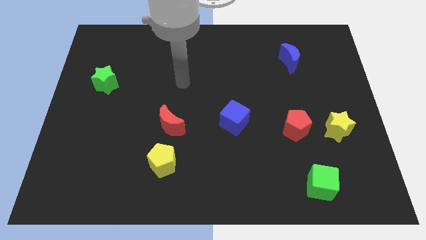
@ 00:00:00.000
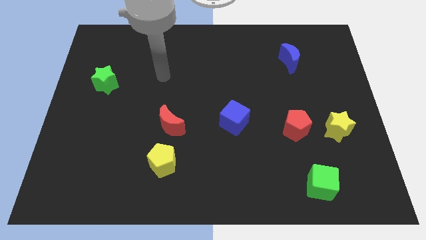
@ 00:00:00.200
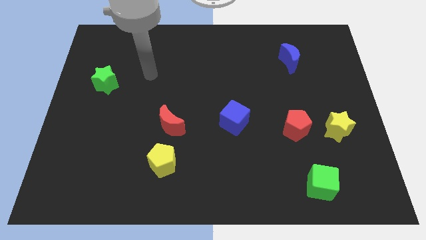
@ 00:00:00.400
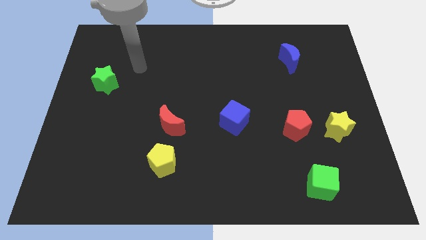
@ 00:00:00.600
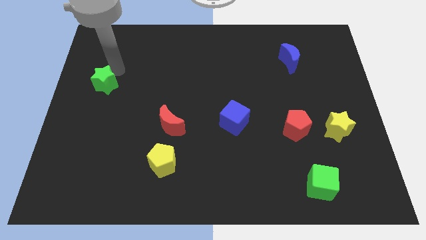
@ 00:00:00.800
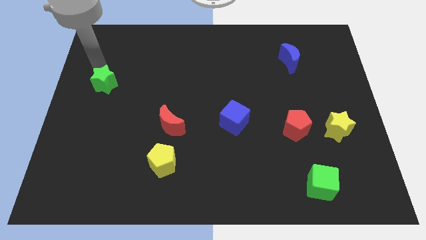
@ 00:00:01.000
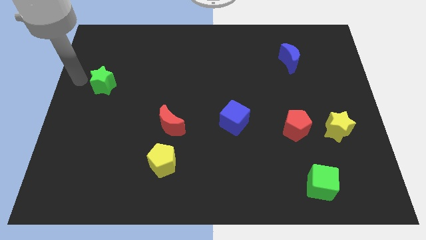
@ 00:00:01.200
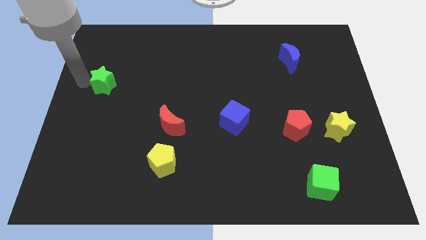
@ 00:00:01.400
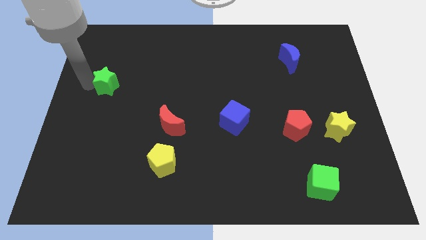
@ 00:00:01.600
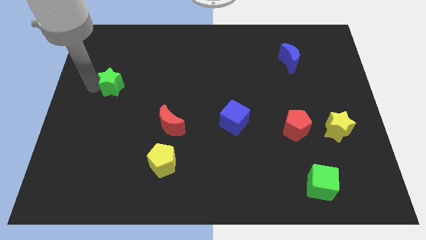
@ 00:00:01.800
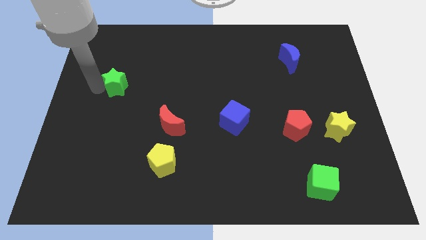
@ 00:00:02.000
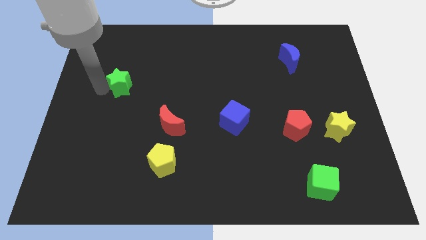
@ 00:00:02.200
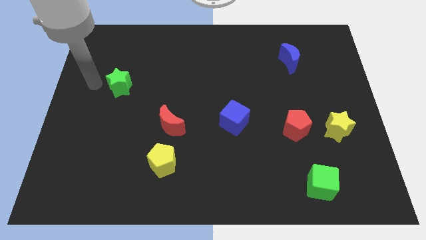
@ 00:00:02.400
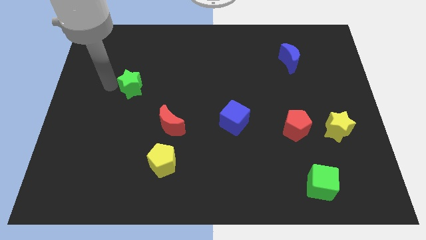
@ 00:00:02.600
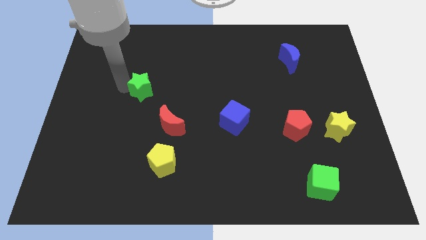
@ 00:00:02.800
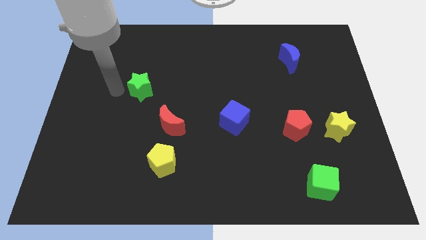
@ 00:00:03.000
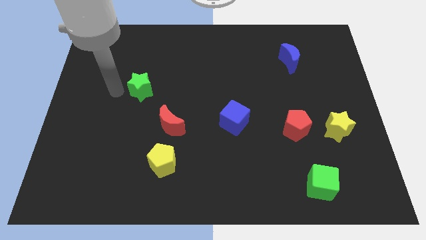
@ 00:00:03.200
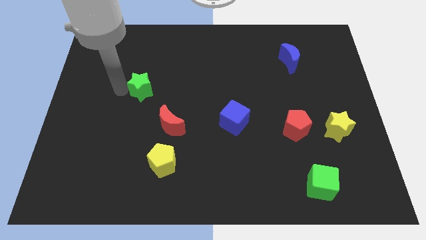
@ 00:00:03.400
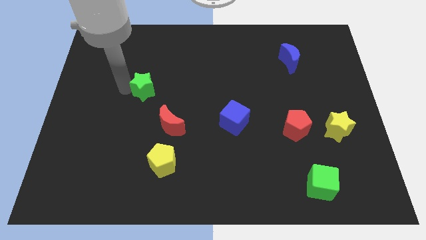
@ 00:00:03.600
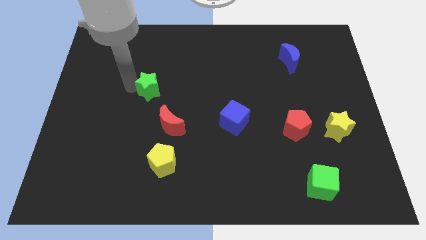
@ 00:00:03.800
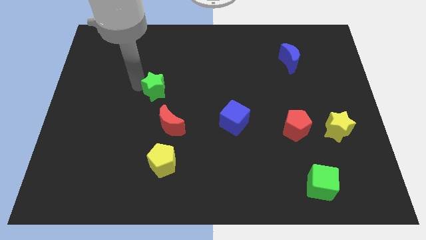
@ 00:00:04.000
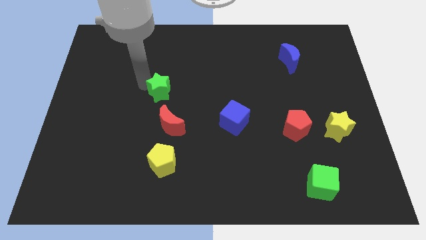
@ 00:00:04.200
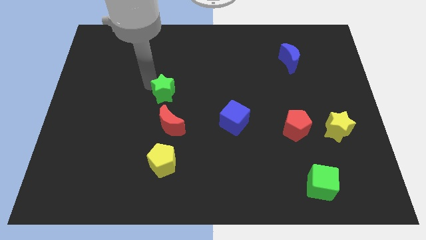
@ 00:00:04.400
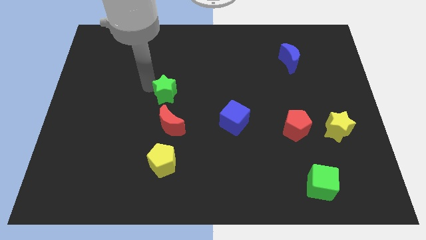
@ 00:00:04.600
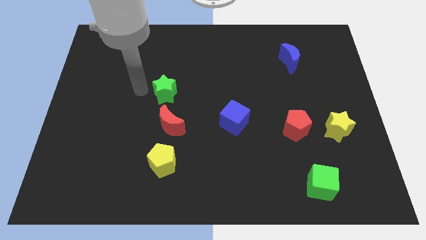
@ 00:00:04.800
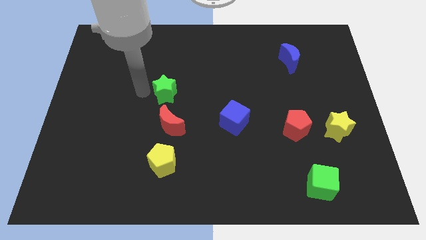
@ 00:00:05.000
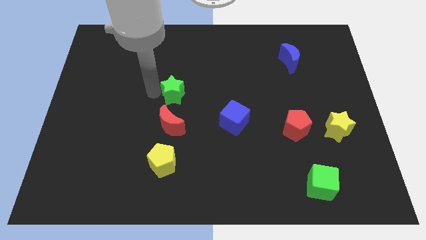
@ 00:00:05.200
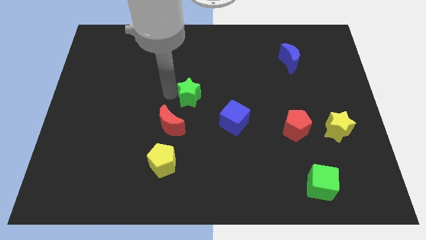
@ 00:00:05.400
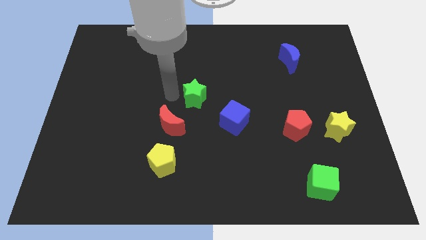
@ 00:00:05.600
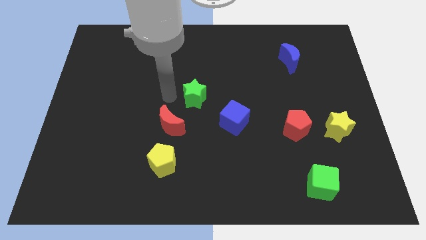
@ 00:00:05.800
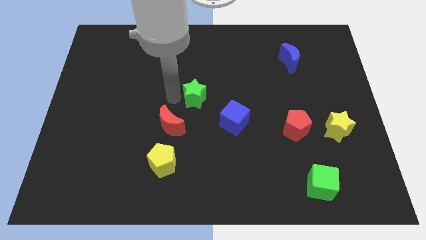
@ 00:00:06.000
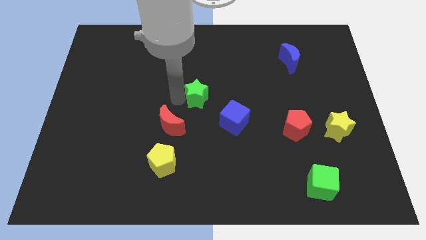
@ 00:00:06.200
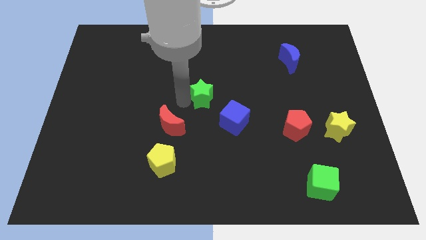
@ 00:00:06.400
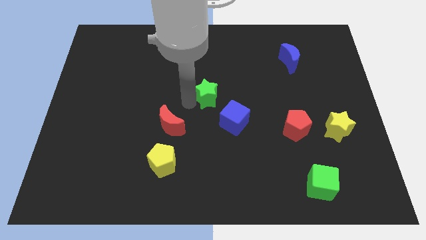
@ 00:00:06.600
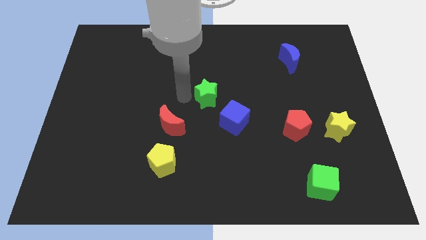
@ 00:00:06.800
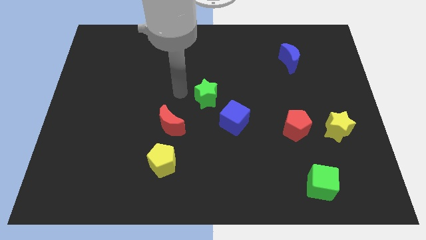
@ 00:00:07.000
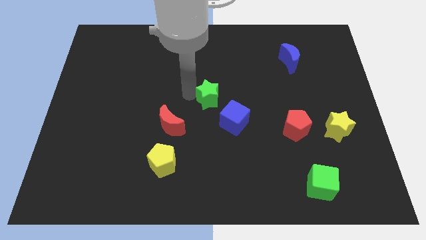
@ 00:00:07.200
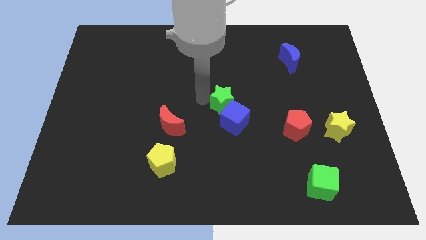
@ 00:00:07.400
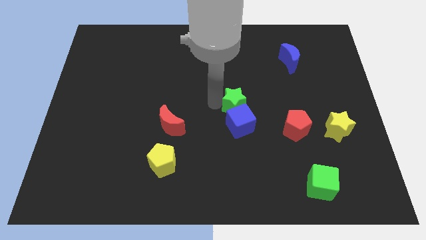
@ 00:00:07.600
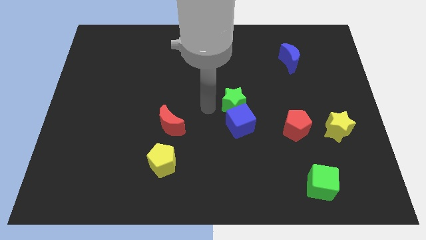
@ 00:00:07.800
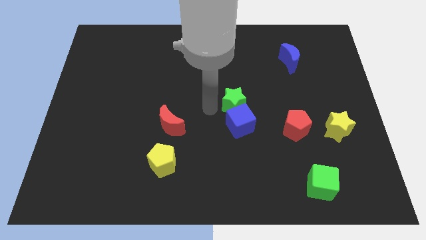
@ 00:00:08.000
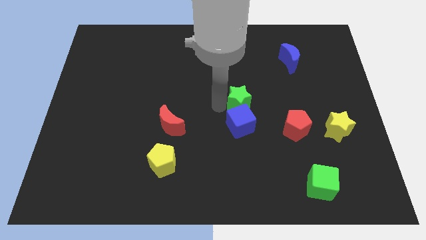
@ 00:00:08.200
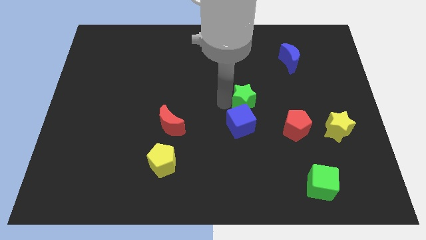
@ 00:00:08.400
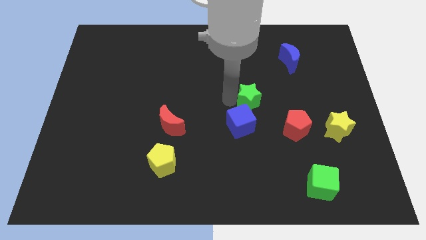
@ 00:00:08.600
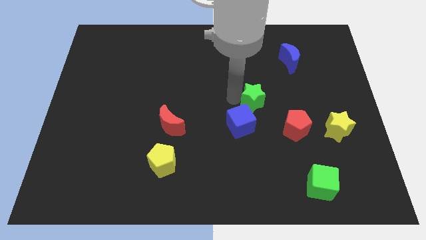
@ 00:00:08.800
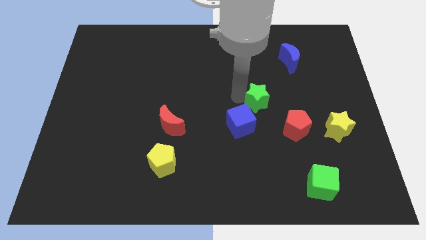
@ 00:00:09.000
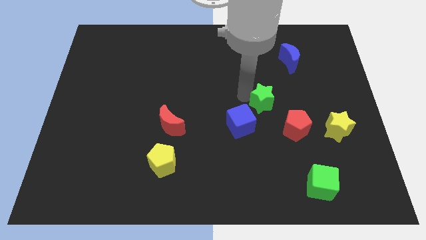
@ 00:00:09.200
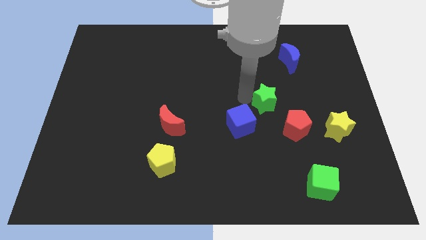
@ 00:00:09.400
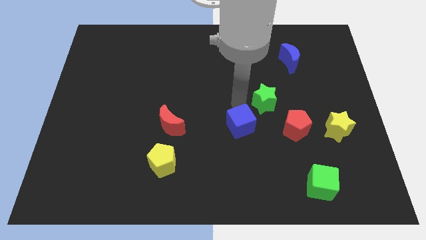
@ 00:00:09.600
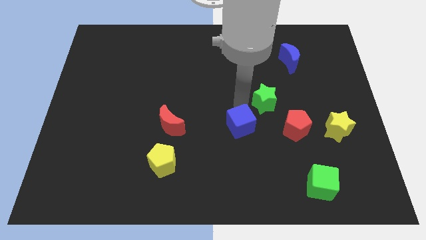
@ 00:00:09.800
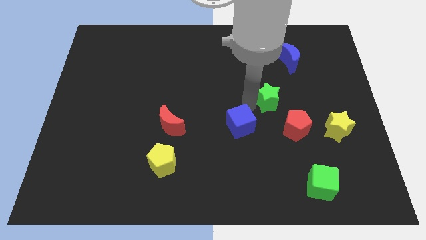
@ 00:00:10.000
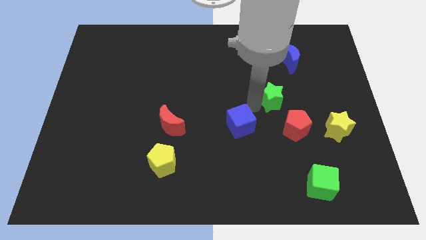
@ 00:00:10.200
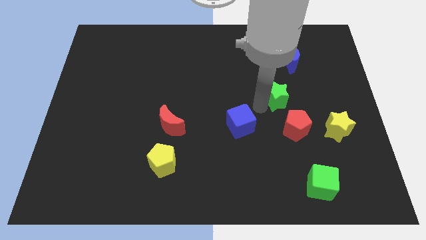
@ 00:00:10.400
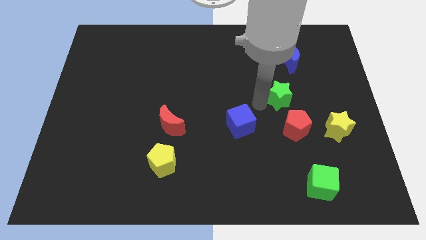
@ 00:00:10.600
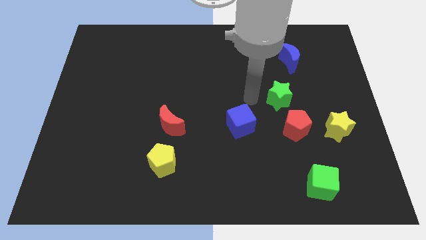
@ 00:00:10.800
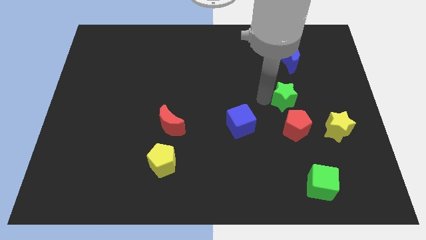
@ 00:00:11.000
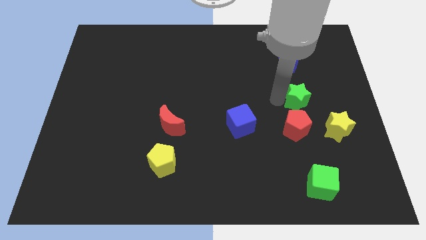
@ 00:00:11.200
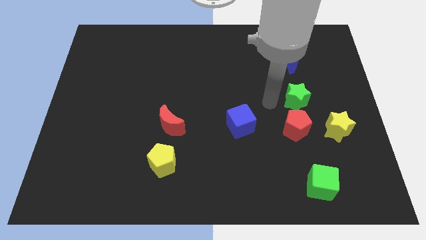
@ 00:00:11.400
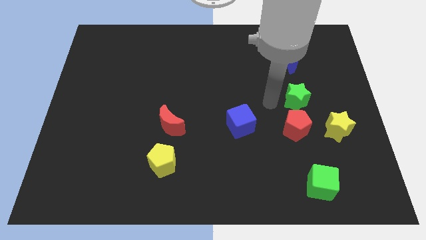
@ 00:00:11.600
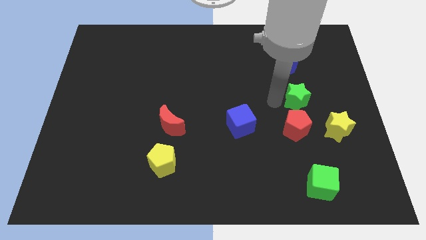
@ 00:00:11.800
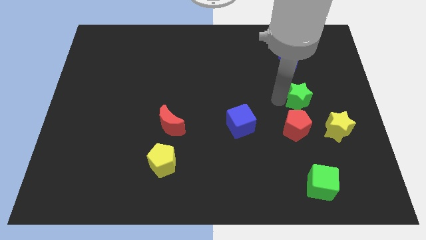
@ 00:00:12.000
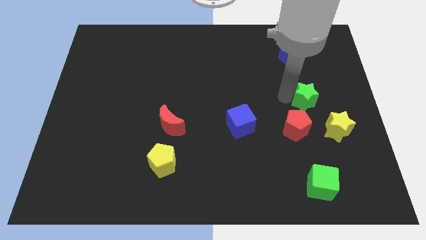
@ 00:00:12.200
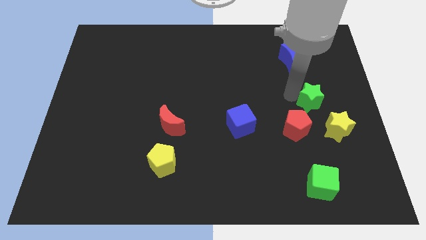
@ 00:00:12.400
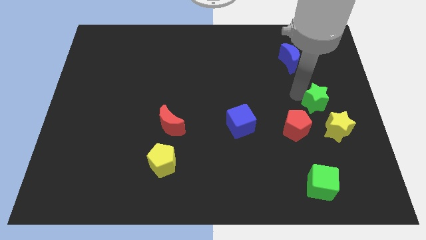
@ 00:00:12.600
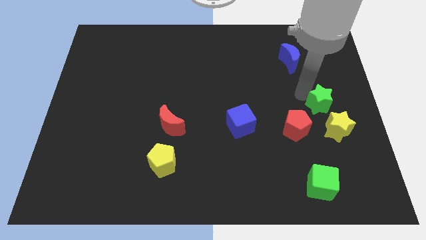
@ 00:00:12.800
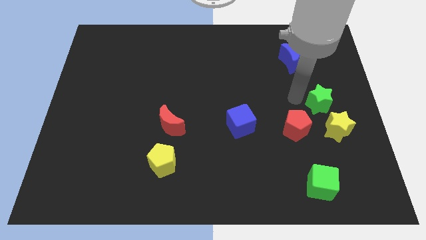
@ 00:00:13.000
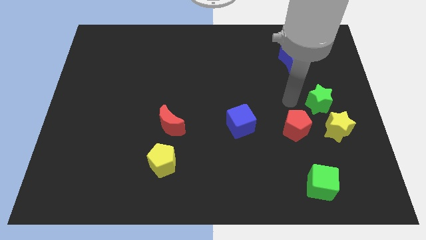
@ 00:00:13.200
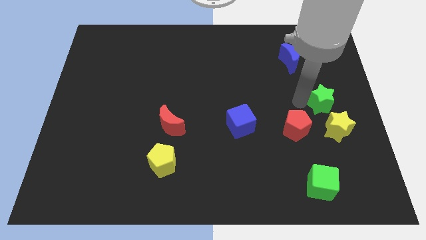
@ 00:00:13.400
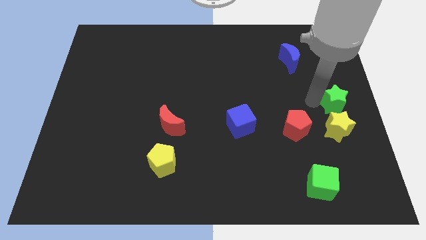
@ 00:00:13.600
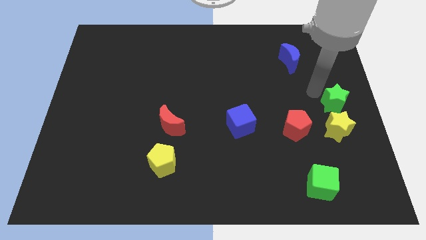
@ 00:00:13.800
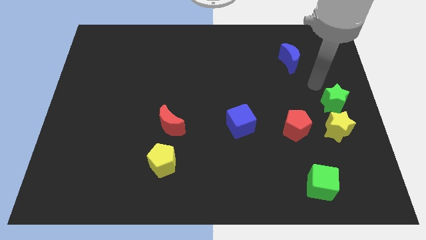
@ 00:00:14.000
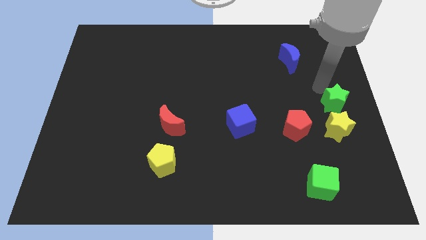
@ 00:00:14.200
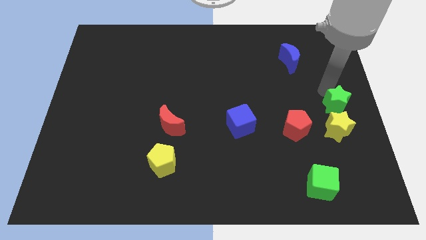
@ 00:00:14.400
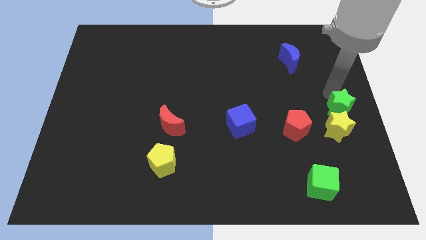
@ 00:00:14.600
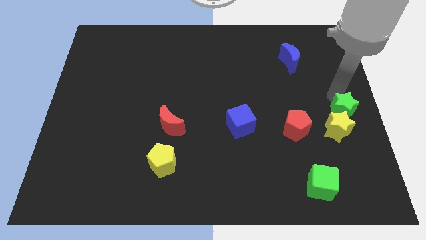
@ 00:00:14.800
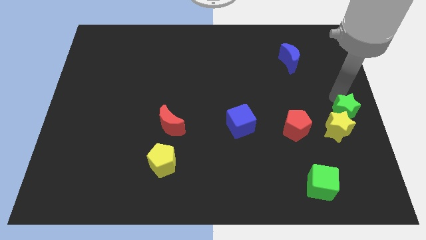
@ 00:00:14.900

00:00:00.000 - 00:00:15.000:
move the green star to the right side of the red pentagon
